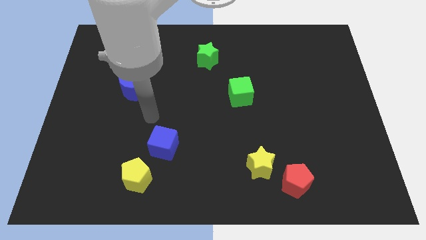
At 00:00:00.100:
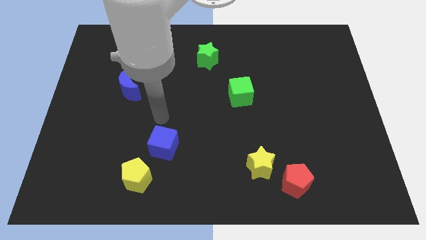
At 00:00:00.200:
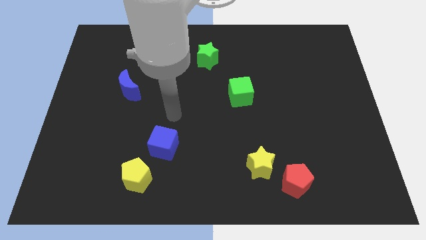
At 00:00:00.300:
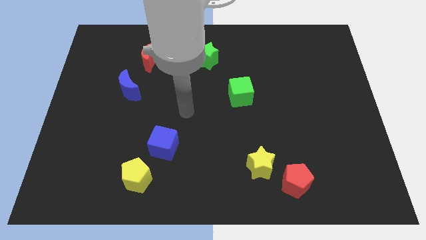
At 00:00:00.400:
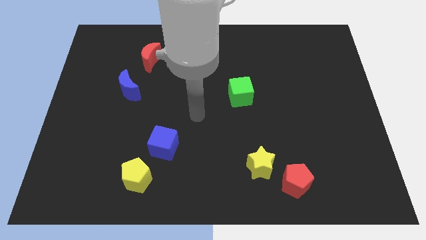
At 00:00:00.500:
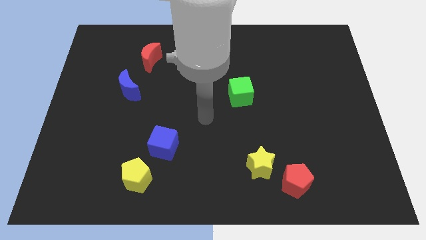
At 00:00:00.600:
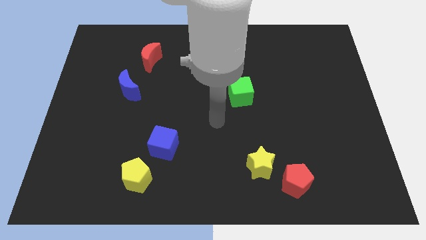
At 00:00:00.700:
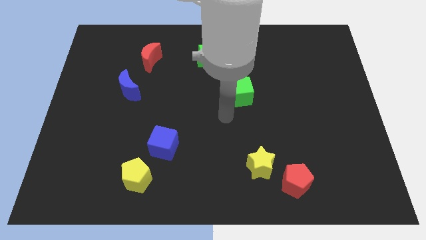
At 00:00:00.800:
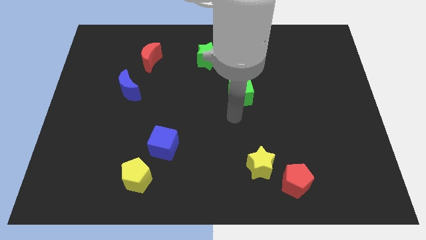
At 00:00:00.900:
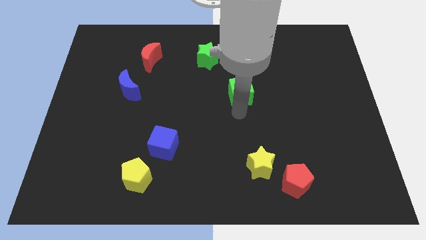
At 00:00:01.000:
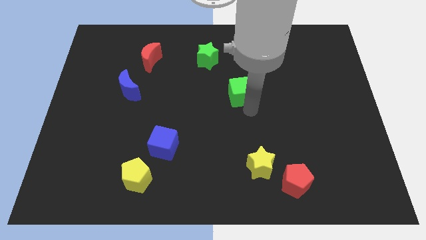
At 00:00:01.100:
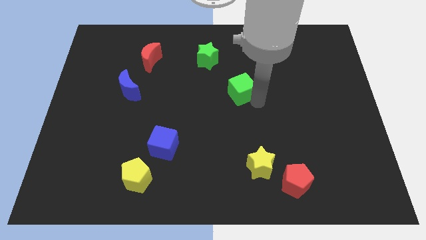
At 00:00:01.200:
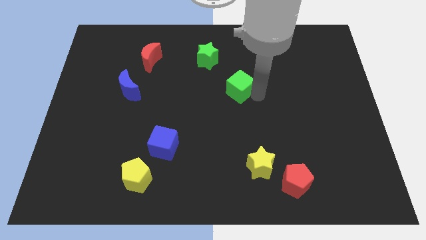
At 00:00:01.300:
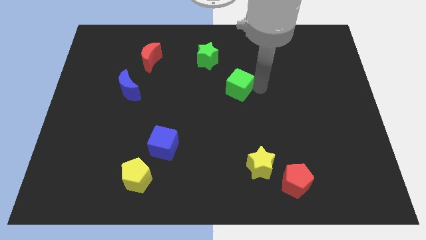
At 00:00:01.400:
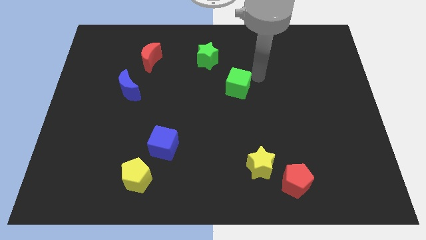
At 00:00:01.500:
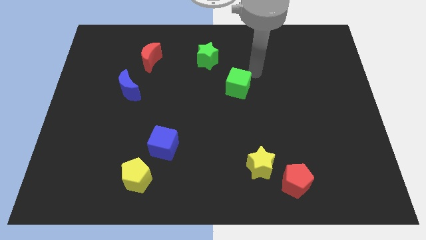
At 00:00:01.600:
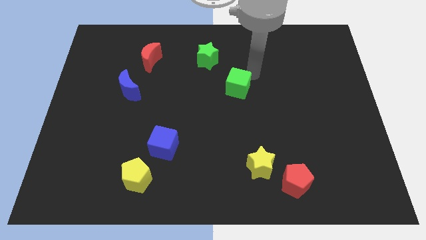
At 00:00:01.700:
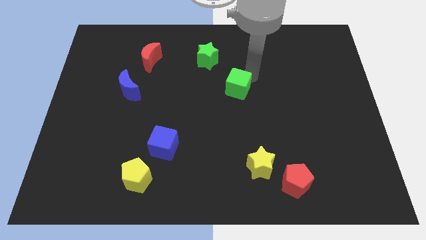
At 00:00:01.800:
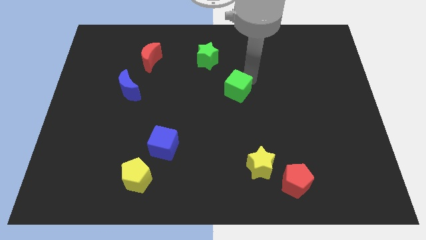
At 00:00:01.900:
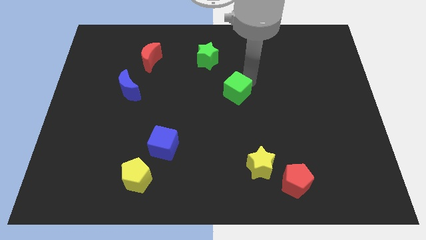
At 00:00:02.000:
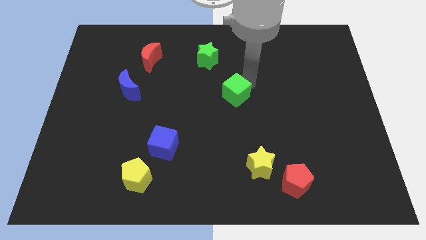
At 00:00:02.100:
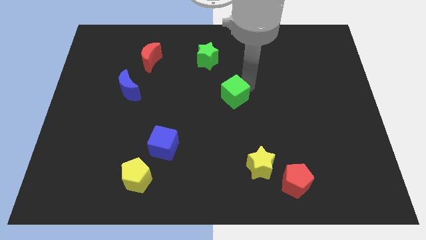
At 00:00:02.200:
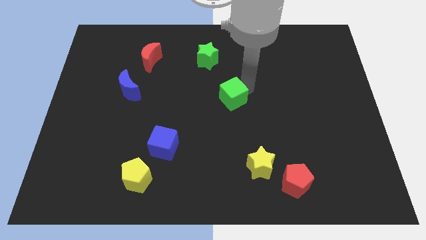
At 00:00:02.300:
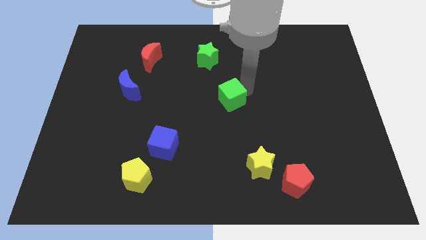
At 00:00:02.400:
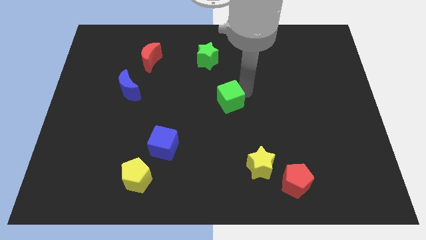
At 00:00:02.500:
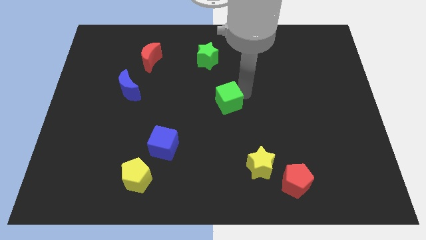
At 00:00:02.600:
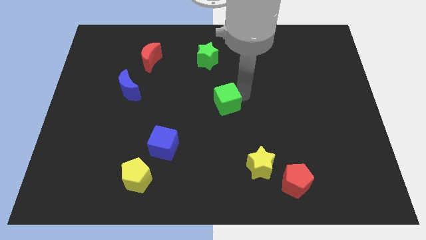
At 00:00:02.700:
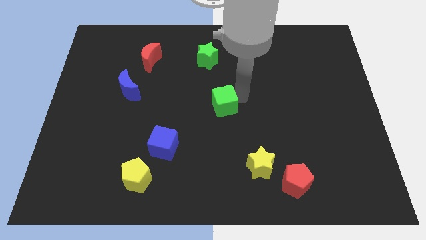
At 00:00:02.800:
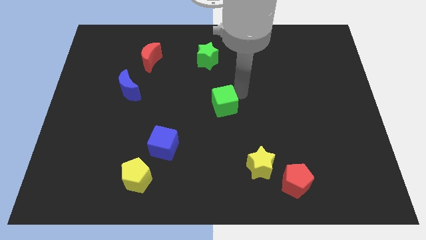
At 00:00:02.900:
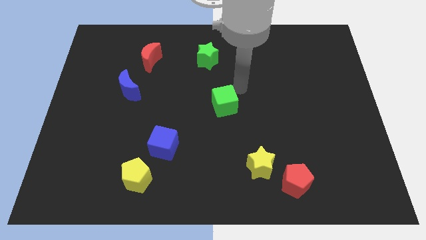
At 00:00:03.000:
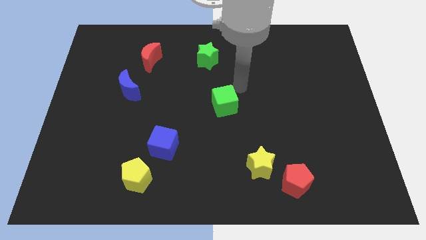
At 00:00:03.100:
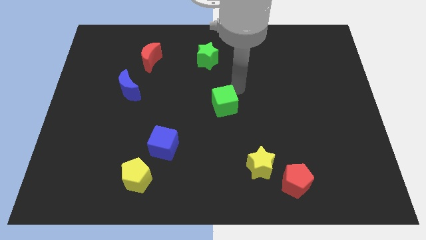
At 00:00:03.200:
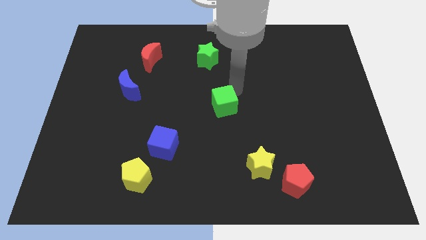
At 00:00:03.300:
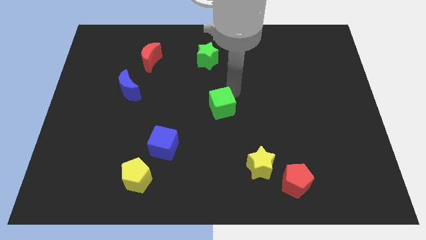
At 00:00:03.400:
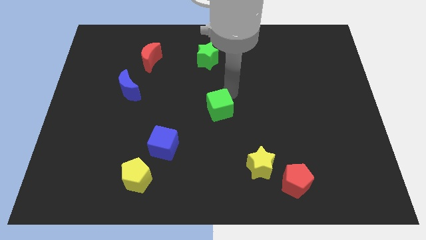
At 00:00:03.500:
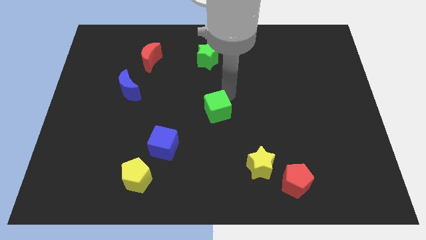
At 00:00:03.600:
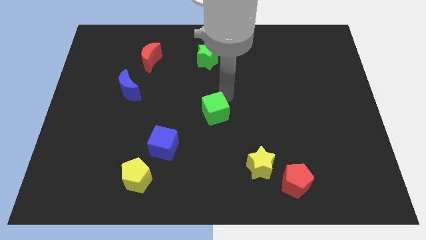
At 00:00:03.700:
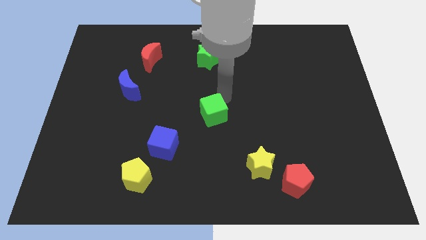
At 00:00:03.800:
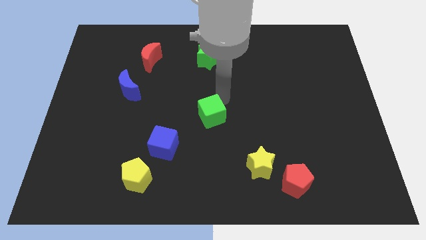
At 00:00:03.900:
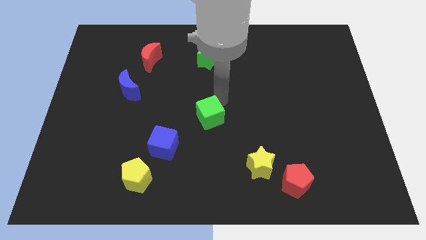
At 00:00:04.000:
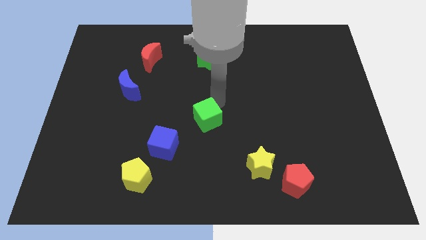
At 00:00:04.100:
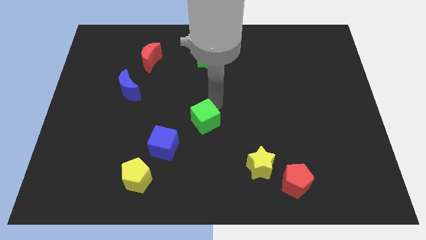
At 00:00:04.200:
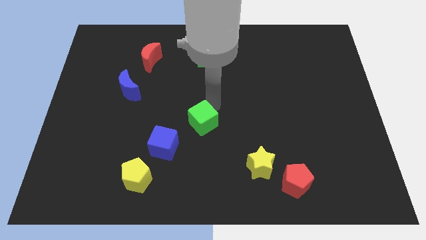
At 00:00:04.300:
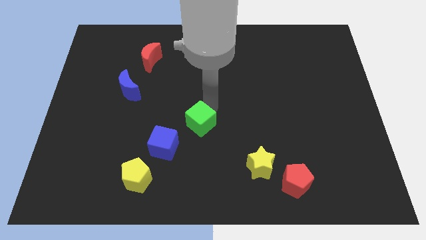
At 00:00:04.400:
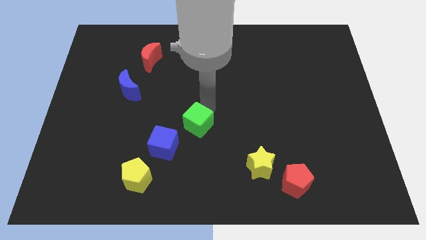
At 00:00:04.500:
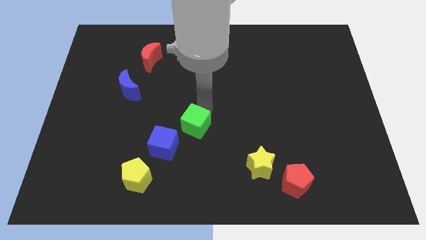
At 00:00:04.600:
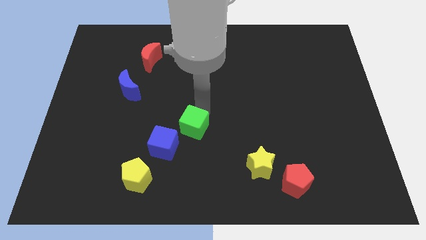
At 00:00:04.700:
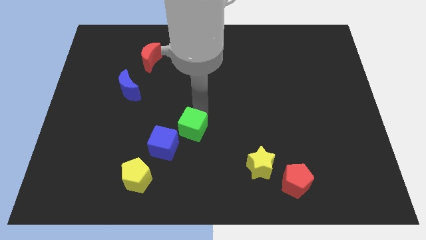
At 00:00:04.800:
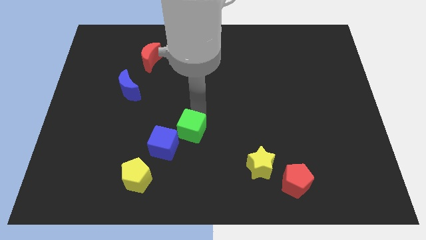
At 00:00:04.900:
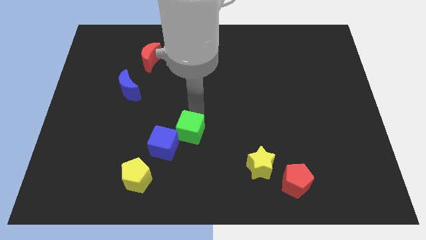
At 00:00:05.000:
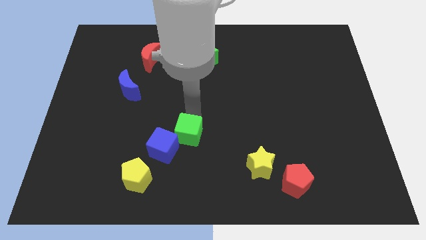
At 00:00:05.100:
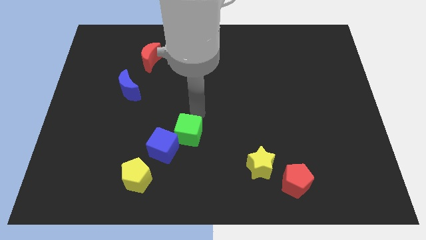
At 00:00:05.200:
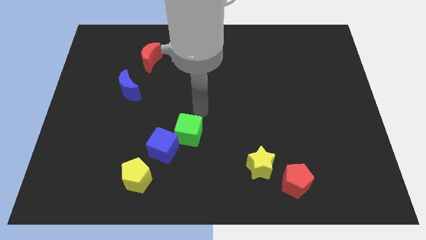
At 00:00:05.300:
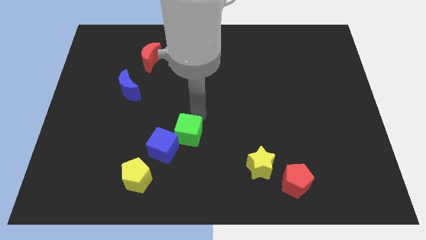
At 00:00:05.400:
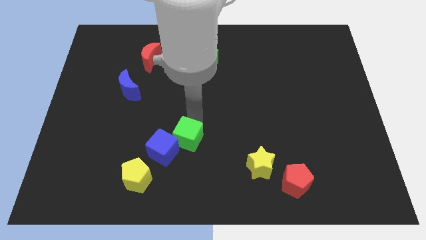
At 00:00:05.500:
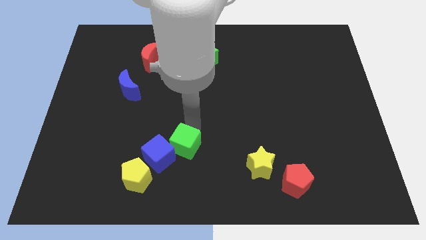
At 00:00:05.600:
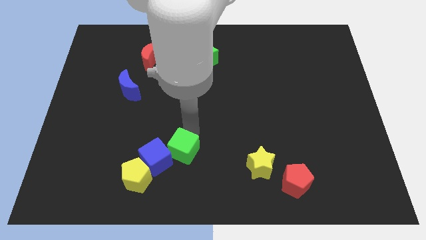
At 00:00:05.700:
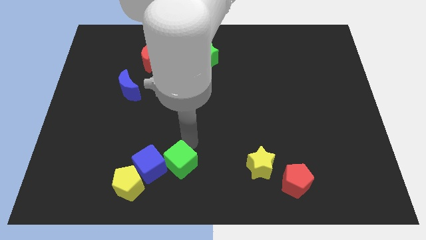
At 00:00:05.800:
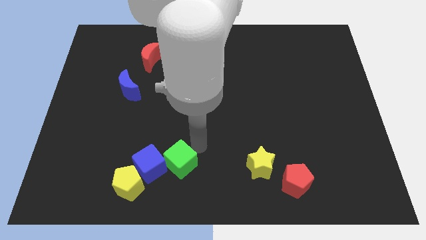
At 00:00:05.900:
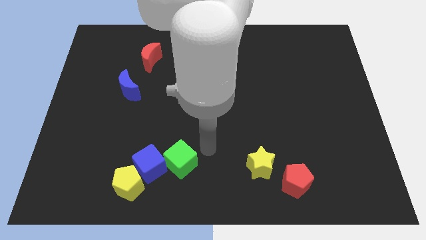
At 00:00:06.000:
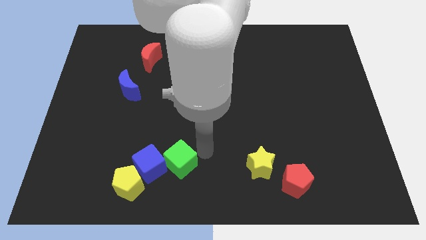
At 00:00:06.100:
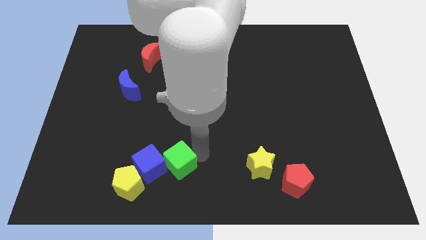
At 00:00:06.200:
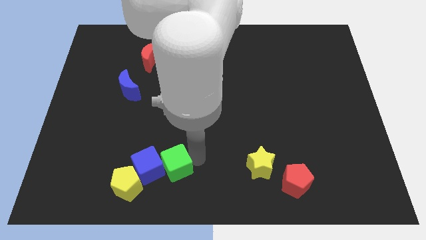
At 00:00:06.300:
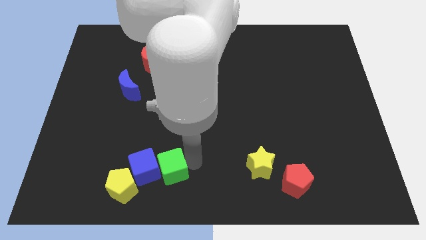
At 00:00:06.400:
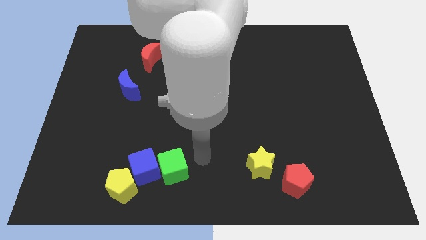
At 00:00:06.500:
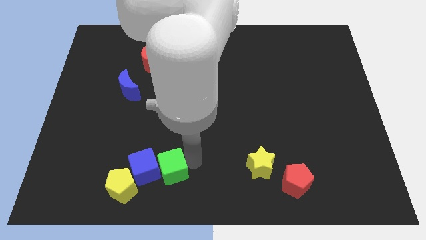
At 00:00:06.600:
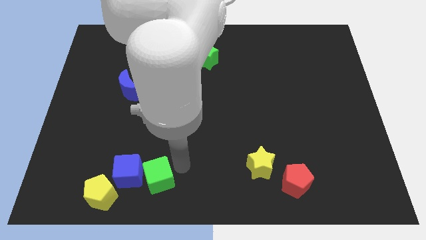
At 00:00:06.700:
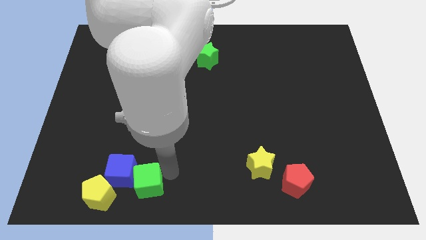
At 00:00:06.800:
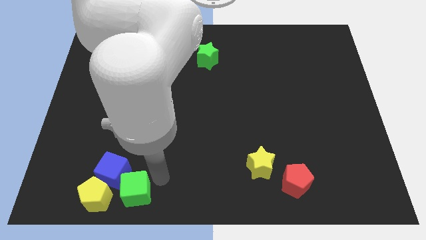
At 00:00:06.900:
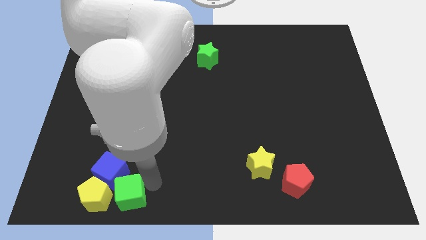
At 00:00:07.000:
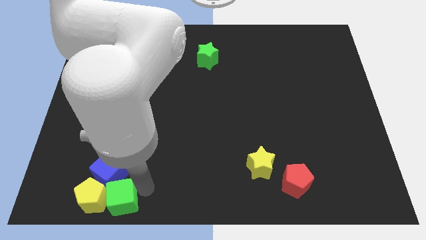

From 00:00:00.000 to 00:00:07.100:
slide the green cube next to the yellow pentagon
